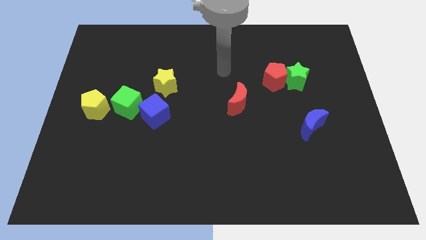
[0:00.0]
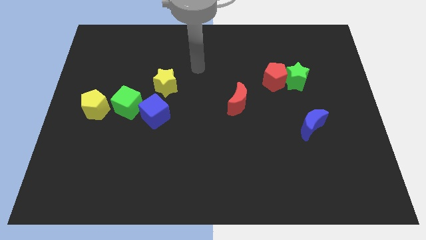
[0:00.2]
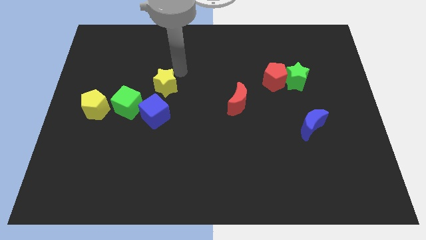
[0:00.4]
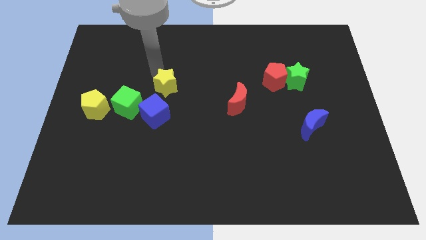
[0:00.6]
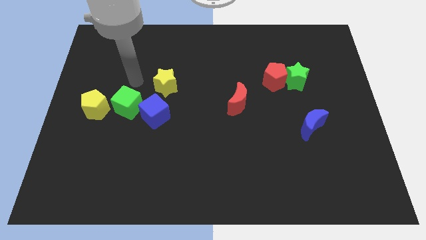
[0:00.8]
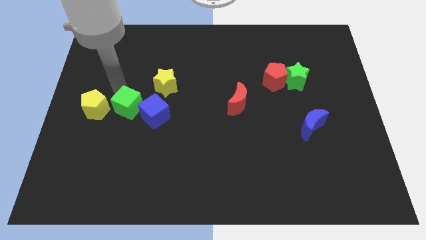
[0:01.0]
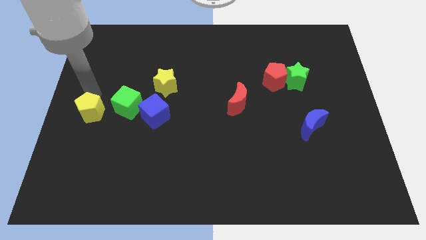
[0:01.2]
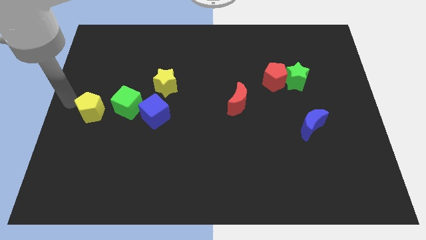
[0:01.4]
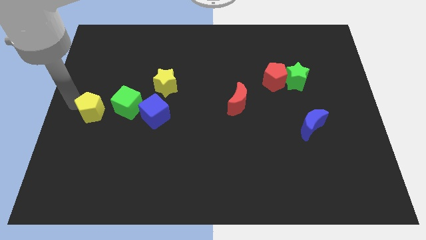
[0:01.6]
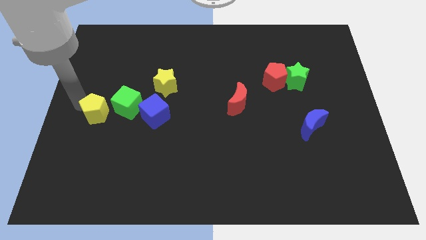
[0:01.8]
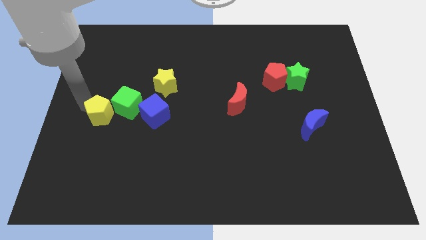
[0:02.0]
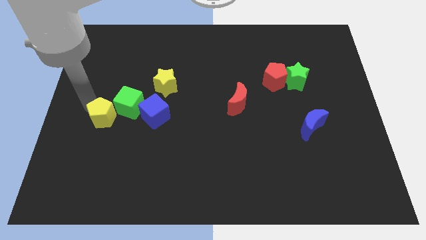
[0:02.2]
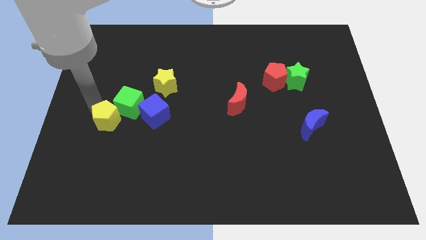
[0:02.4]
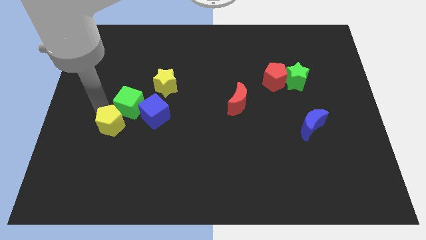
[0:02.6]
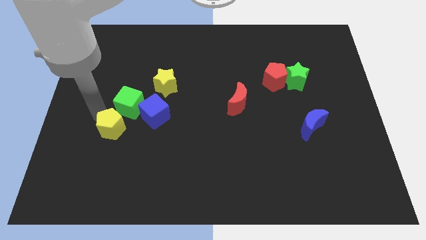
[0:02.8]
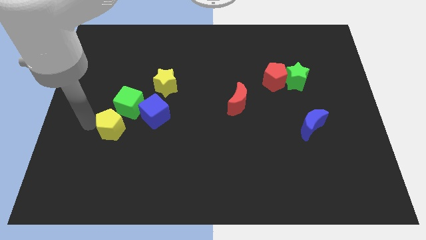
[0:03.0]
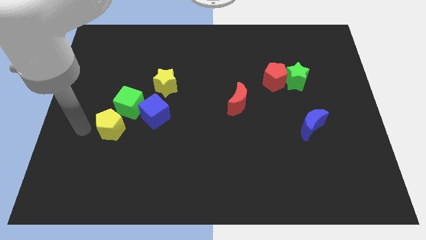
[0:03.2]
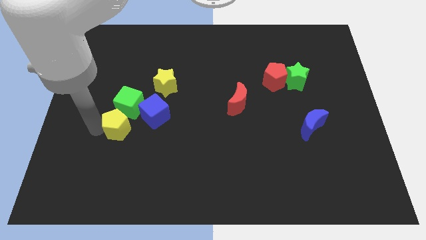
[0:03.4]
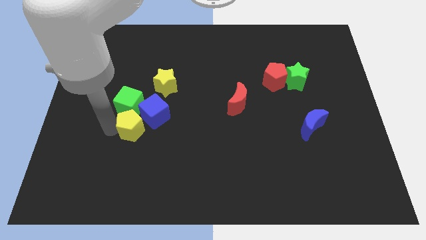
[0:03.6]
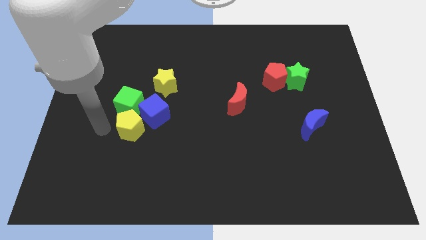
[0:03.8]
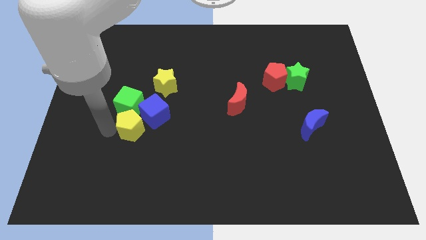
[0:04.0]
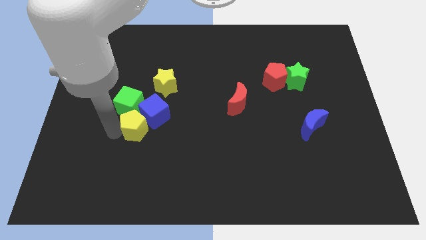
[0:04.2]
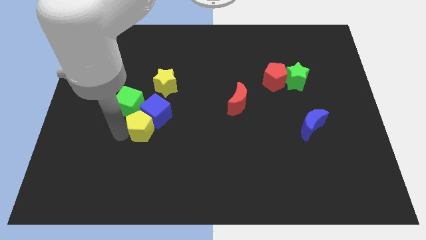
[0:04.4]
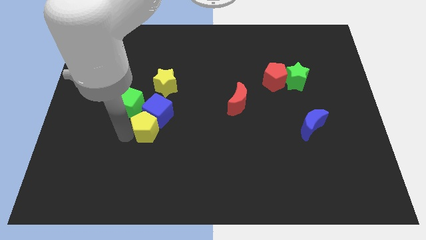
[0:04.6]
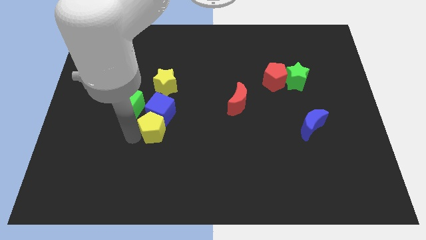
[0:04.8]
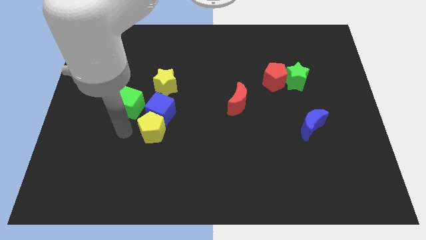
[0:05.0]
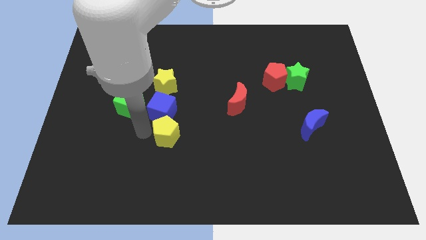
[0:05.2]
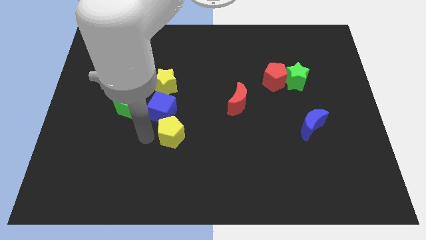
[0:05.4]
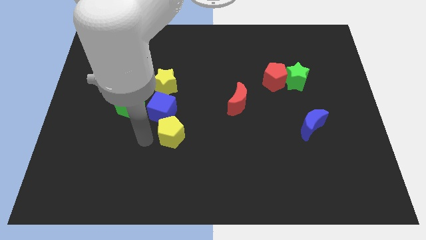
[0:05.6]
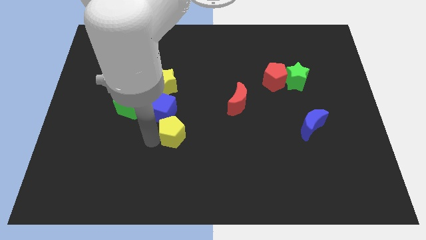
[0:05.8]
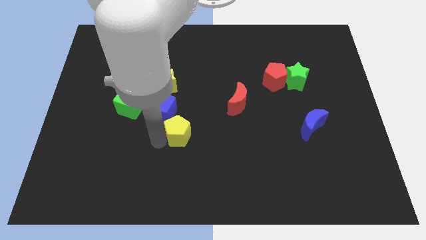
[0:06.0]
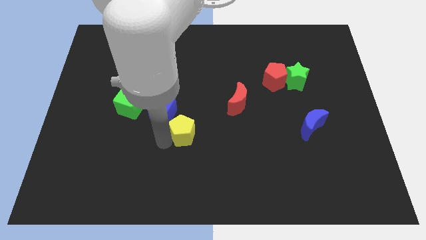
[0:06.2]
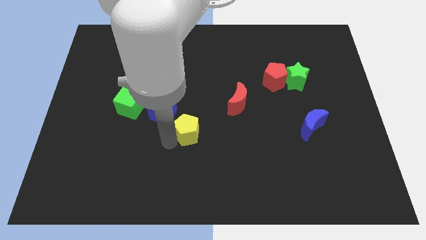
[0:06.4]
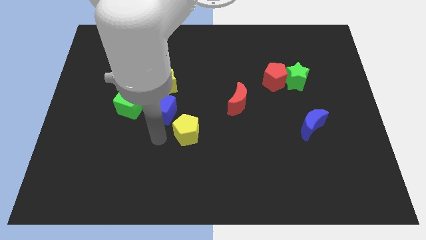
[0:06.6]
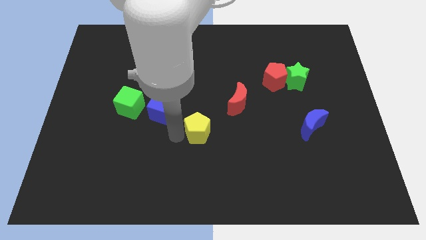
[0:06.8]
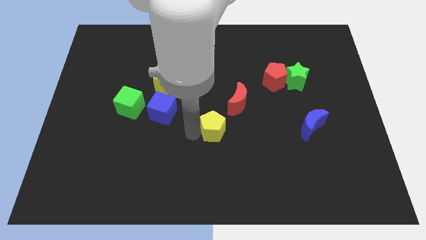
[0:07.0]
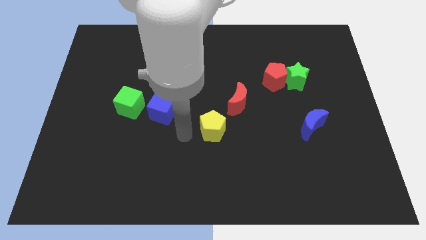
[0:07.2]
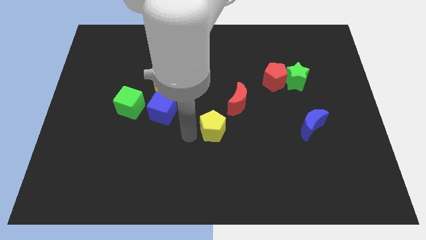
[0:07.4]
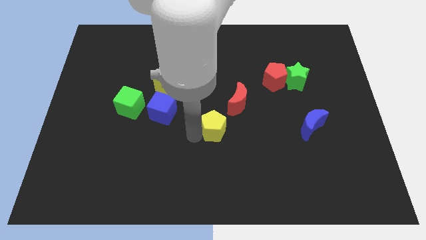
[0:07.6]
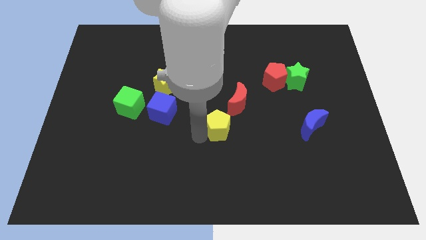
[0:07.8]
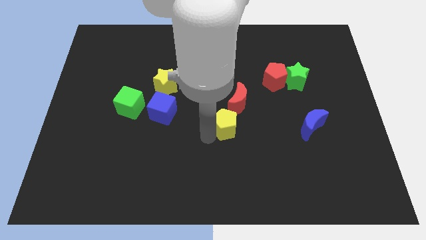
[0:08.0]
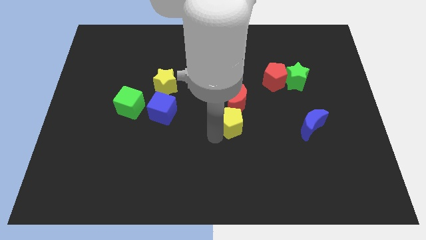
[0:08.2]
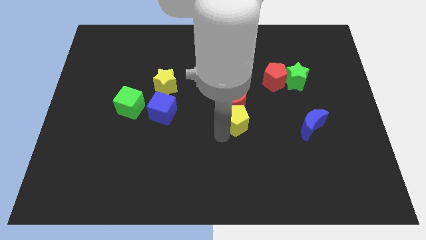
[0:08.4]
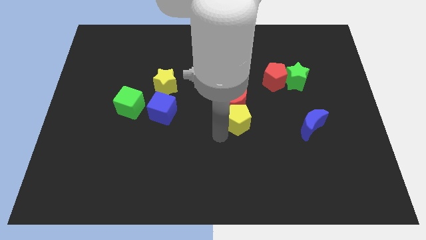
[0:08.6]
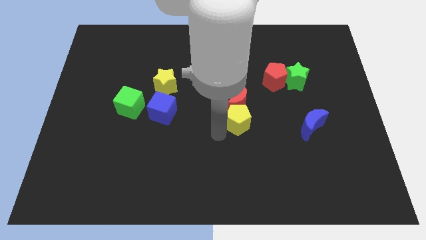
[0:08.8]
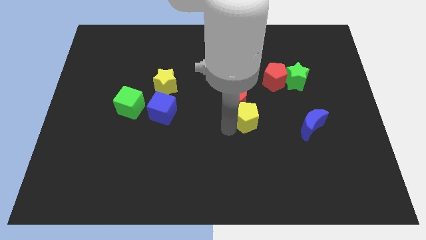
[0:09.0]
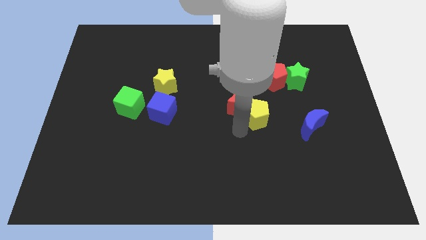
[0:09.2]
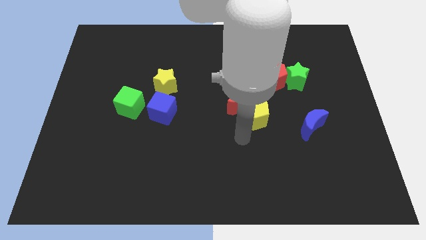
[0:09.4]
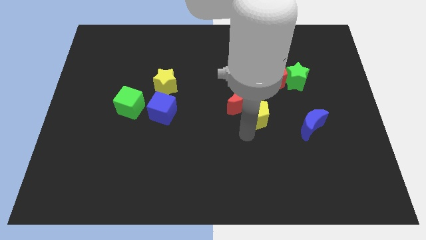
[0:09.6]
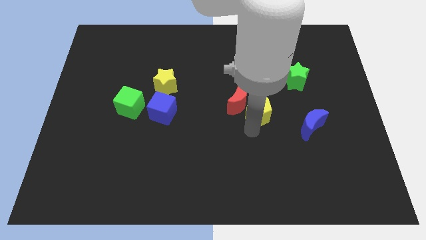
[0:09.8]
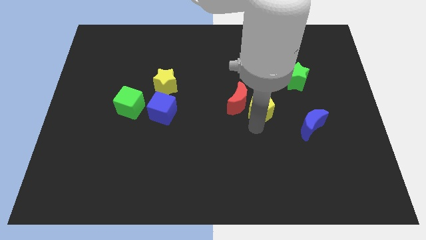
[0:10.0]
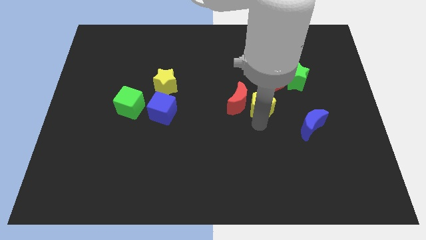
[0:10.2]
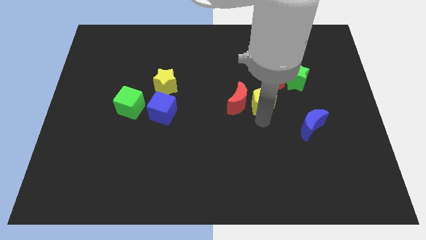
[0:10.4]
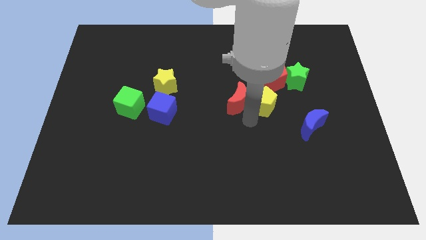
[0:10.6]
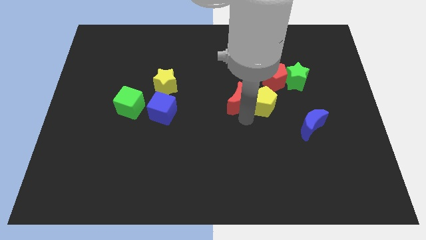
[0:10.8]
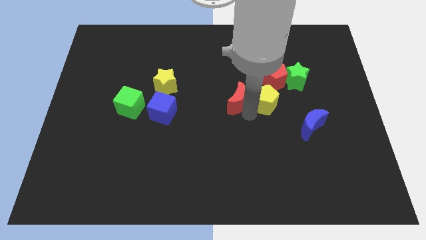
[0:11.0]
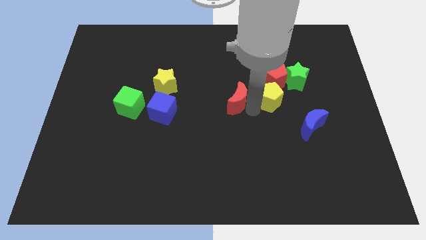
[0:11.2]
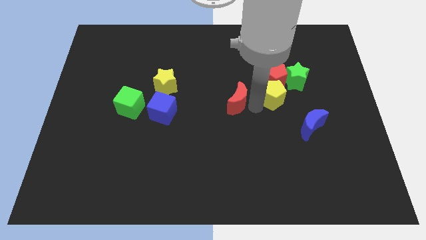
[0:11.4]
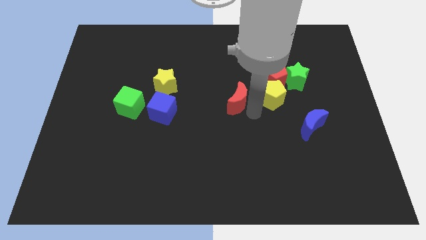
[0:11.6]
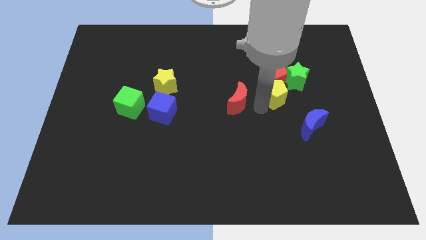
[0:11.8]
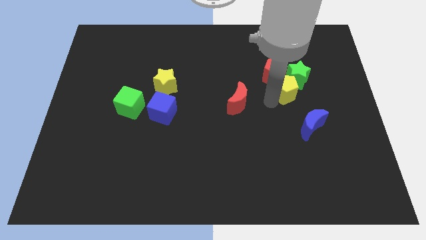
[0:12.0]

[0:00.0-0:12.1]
move the yellow pentagon next to the green star

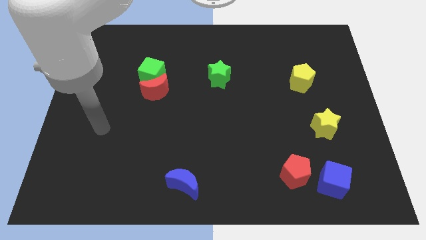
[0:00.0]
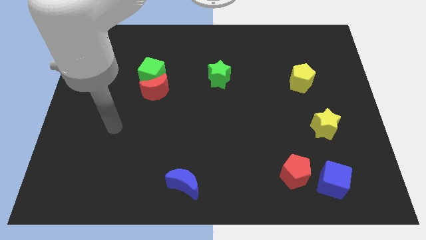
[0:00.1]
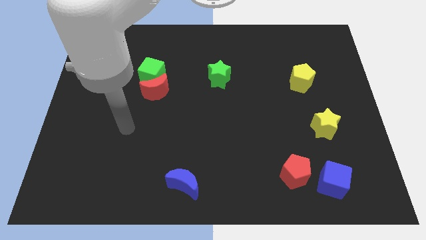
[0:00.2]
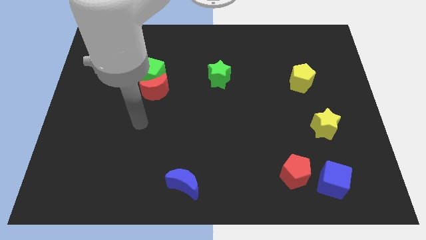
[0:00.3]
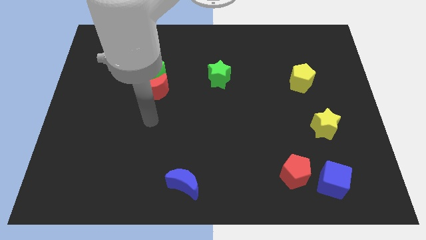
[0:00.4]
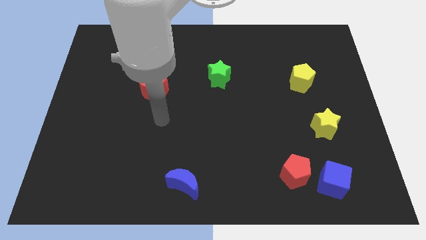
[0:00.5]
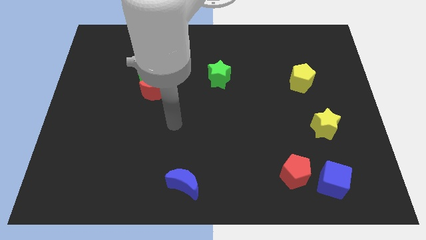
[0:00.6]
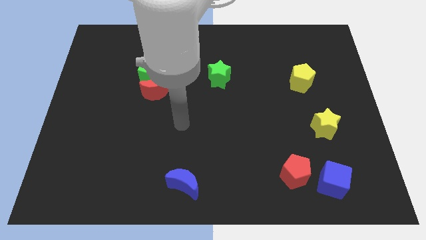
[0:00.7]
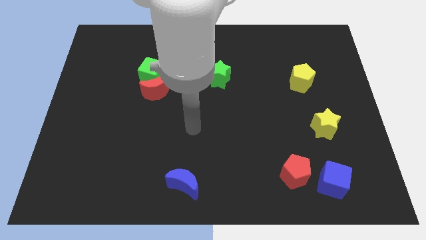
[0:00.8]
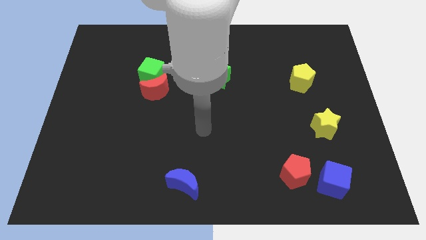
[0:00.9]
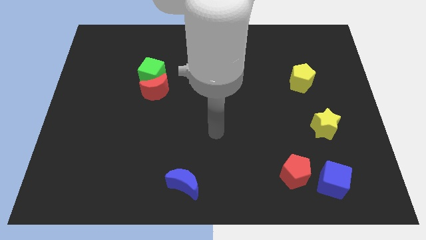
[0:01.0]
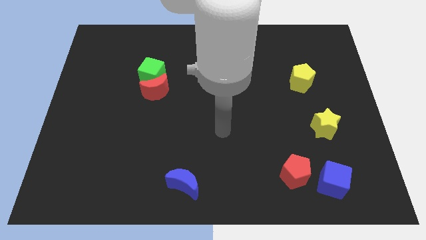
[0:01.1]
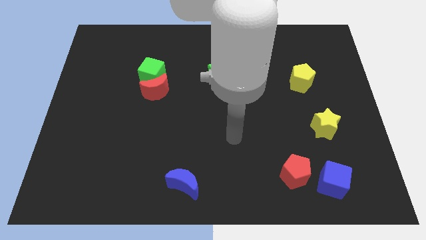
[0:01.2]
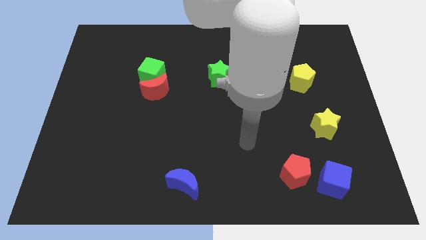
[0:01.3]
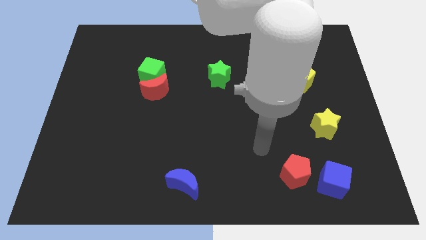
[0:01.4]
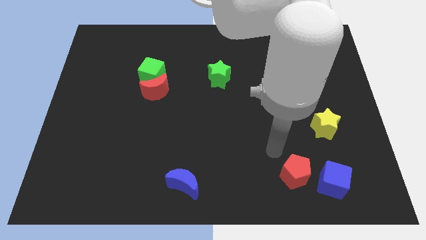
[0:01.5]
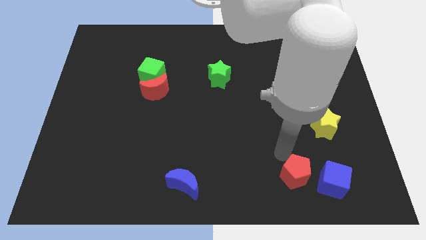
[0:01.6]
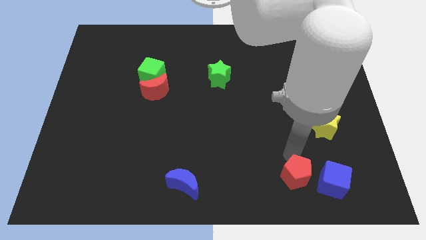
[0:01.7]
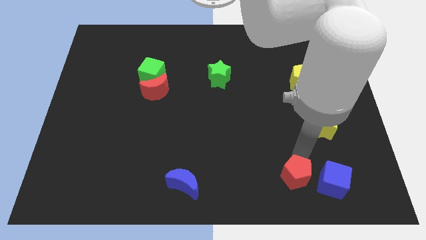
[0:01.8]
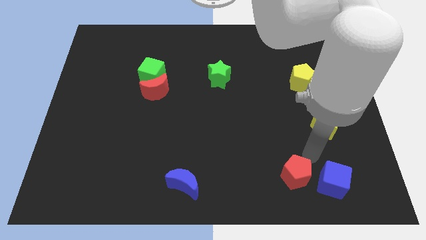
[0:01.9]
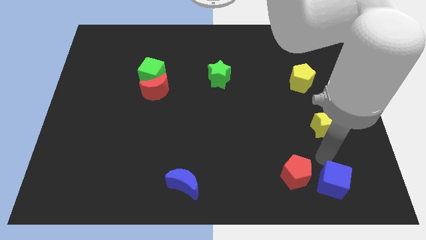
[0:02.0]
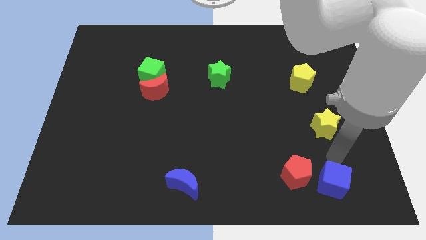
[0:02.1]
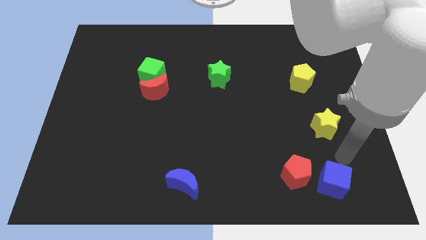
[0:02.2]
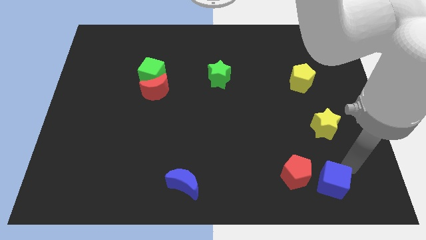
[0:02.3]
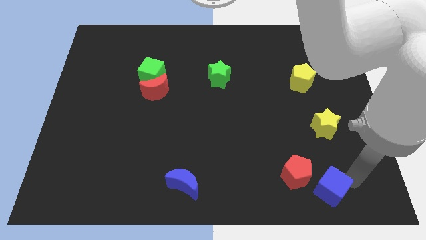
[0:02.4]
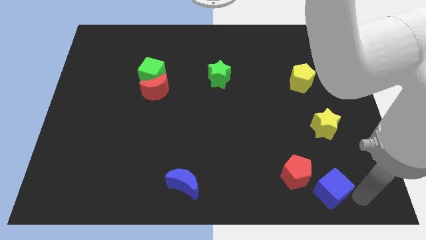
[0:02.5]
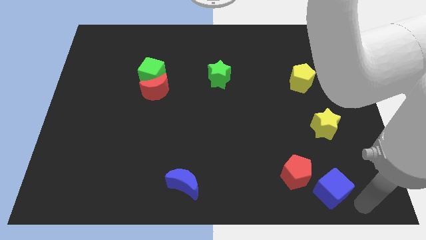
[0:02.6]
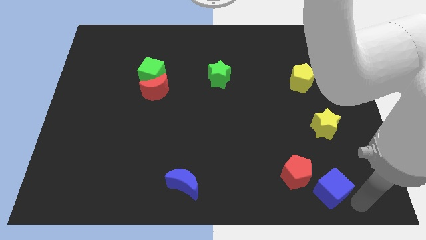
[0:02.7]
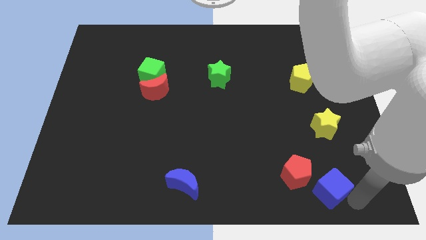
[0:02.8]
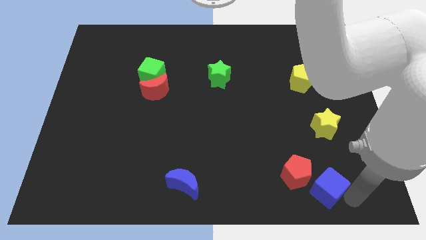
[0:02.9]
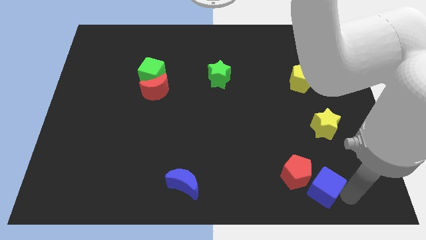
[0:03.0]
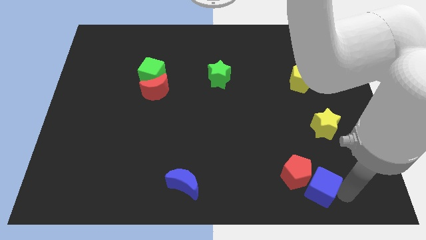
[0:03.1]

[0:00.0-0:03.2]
move the blue cube to the red pentagon
